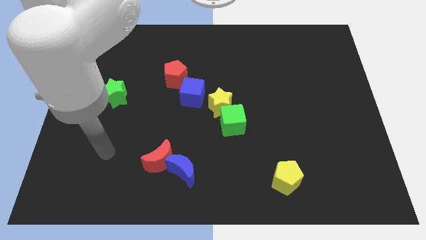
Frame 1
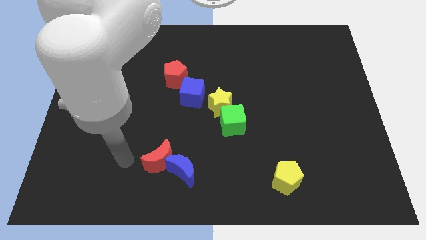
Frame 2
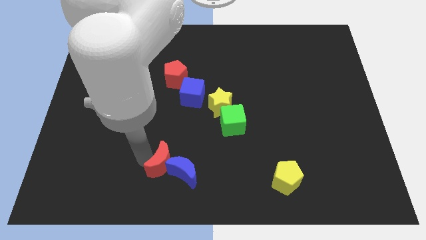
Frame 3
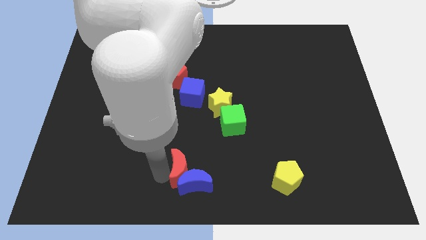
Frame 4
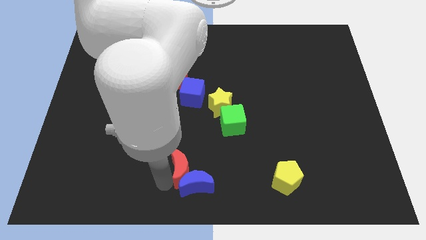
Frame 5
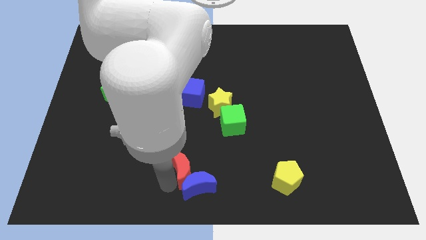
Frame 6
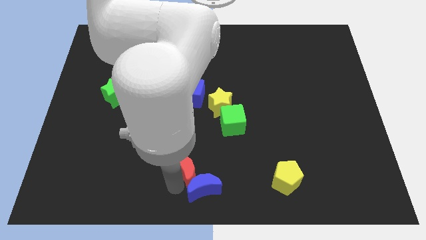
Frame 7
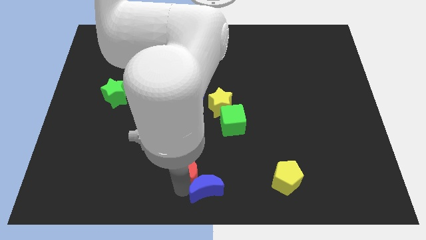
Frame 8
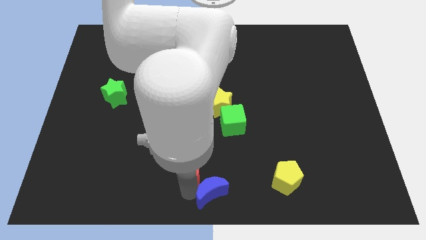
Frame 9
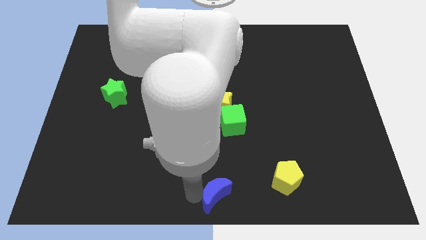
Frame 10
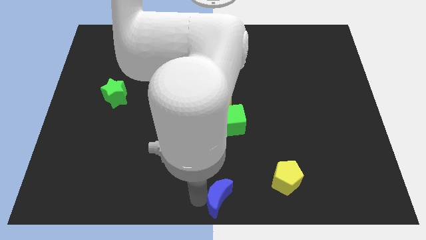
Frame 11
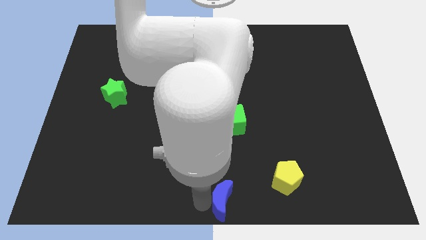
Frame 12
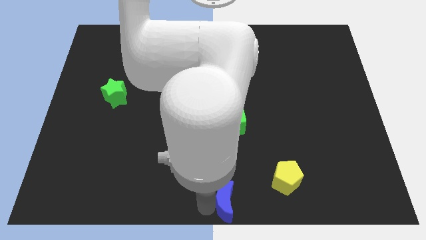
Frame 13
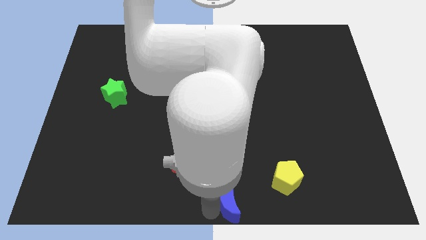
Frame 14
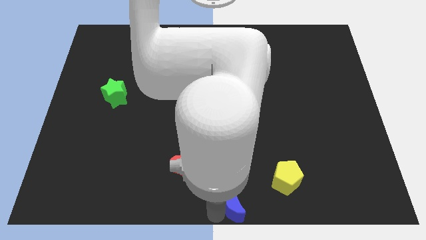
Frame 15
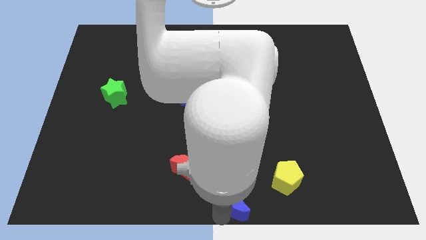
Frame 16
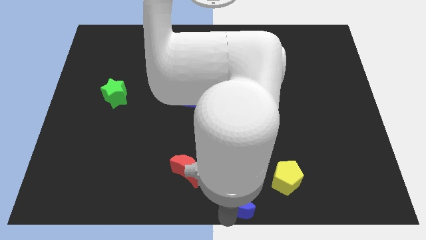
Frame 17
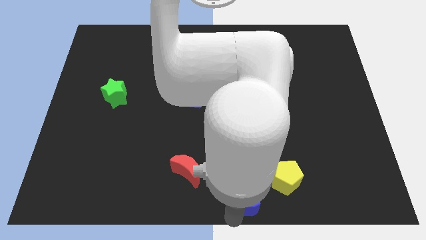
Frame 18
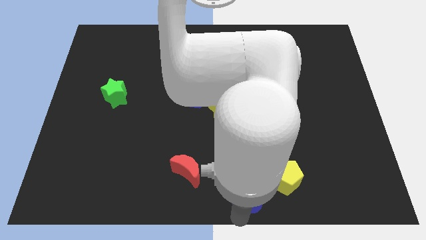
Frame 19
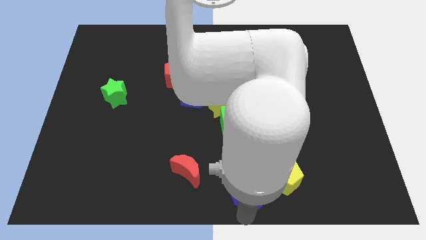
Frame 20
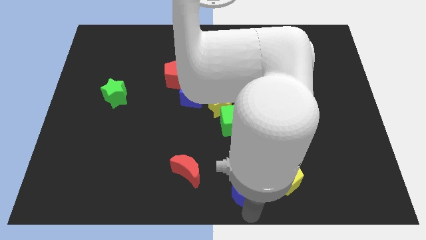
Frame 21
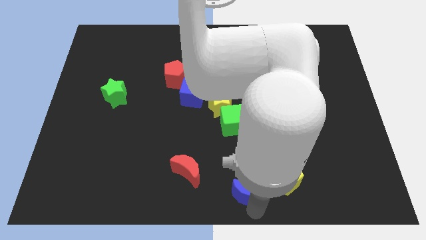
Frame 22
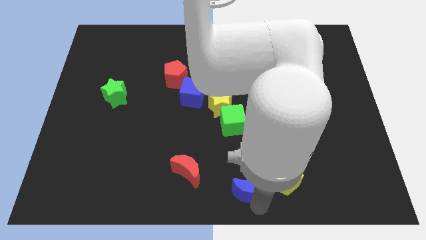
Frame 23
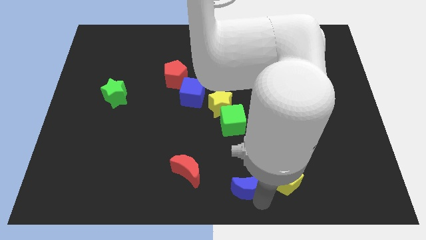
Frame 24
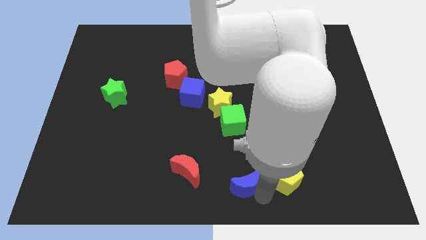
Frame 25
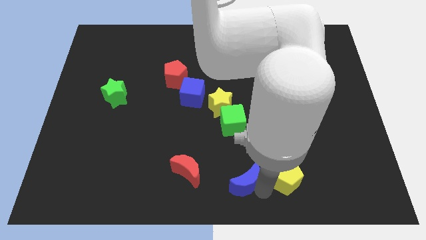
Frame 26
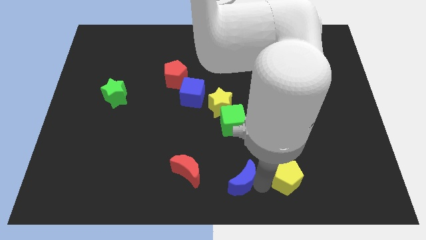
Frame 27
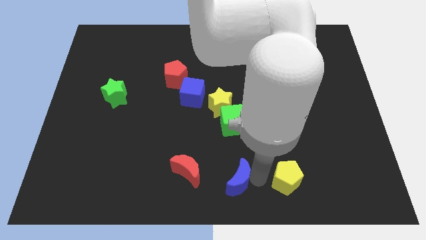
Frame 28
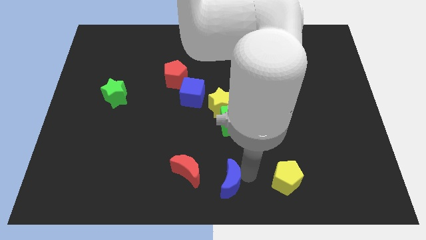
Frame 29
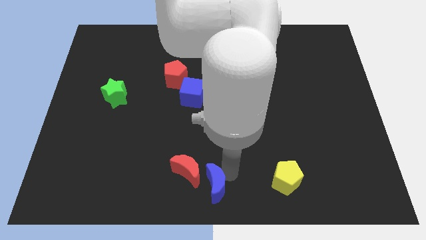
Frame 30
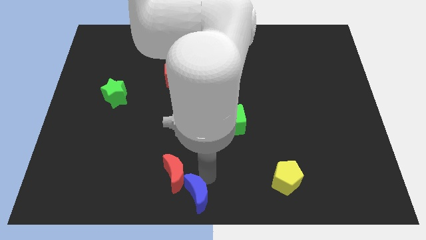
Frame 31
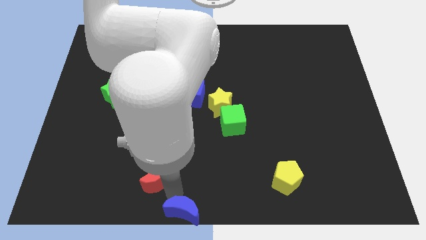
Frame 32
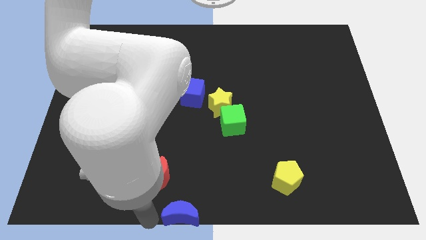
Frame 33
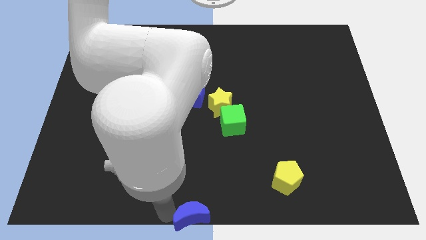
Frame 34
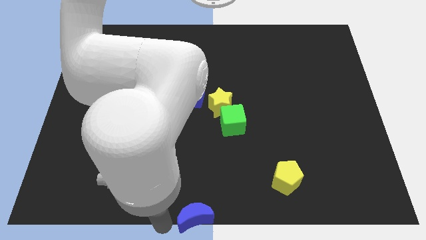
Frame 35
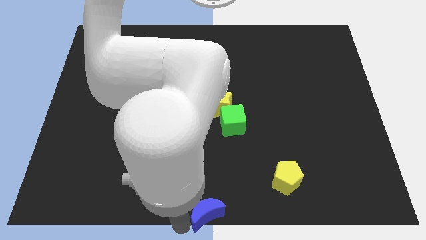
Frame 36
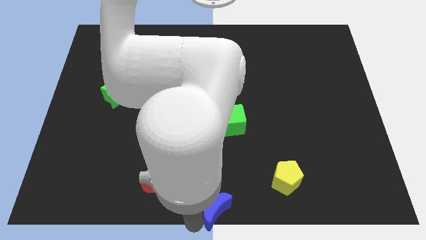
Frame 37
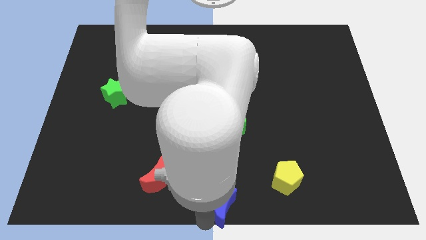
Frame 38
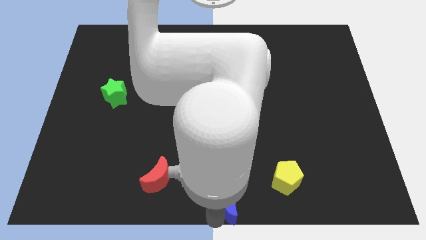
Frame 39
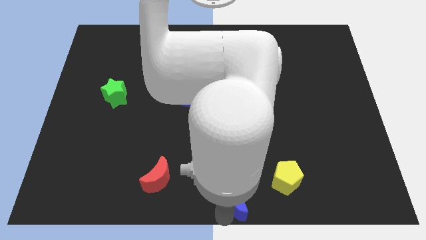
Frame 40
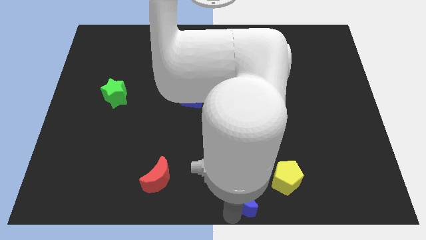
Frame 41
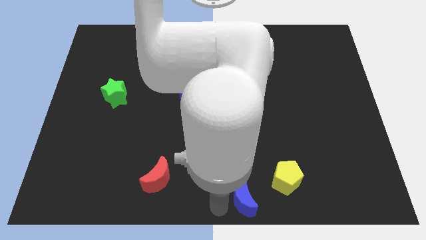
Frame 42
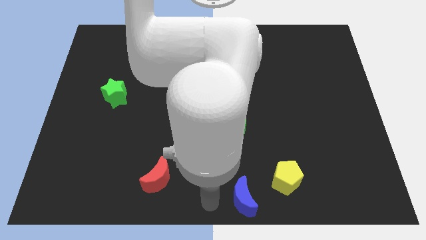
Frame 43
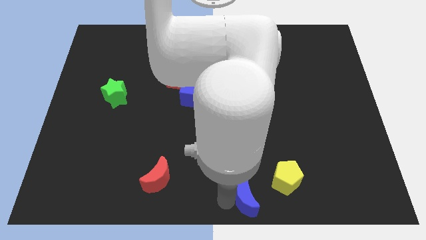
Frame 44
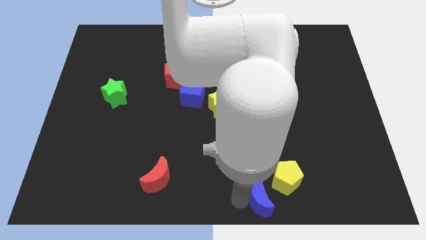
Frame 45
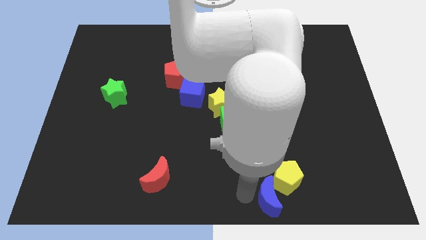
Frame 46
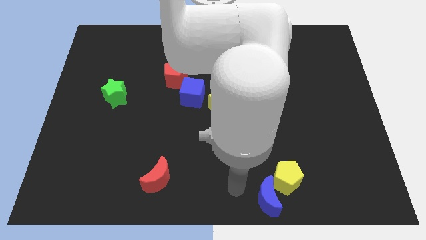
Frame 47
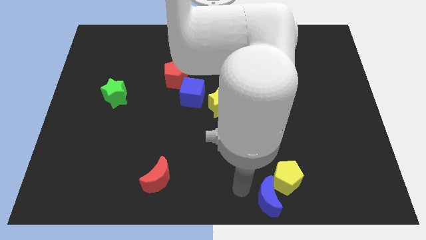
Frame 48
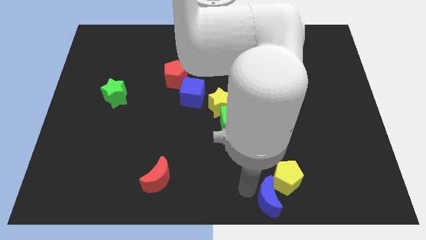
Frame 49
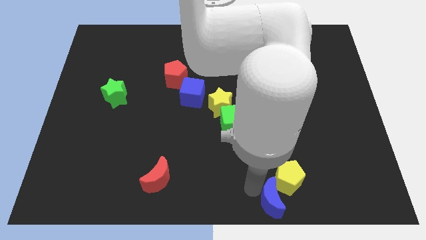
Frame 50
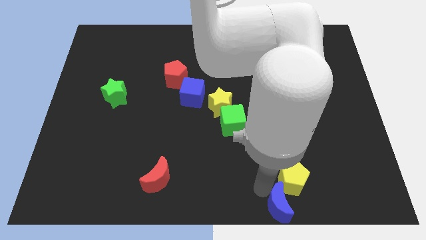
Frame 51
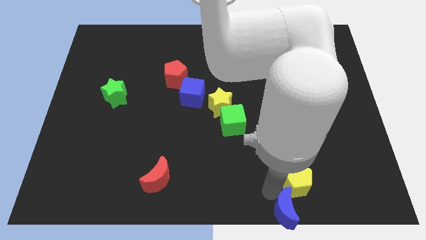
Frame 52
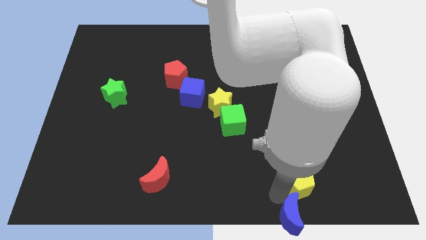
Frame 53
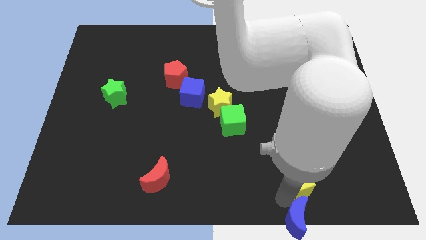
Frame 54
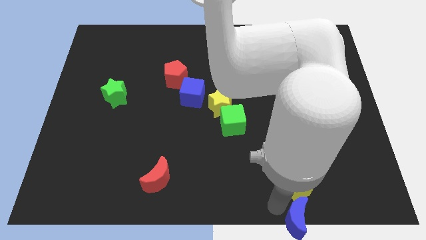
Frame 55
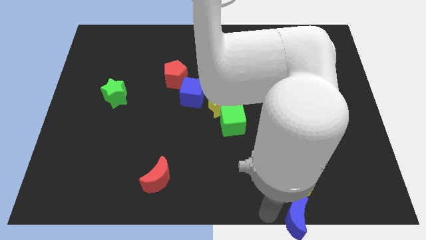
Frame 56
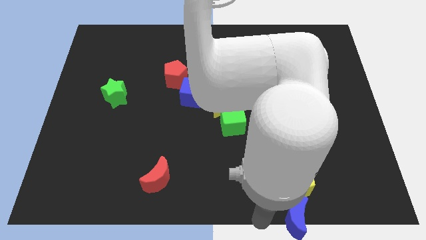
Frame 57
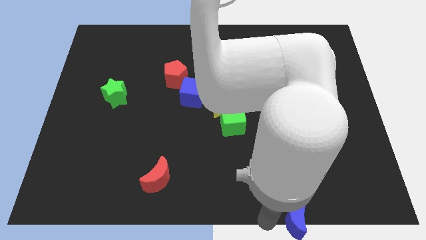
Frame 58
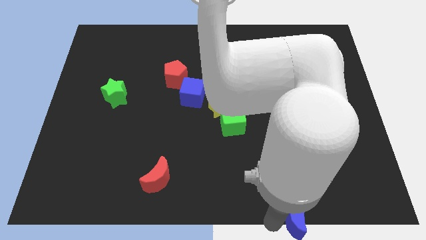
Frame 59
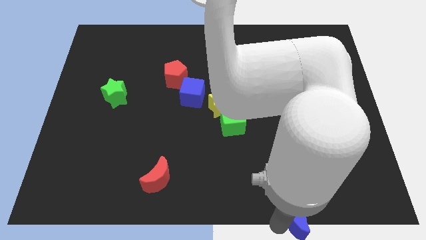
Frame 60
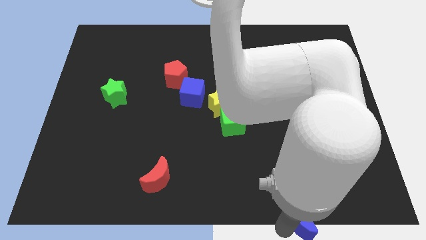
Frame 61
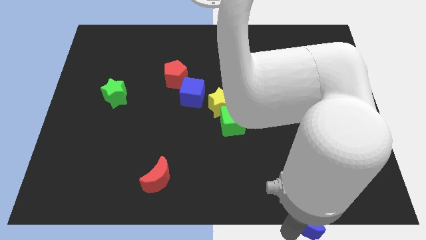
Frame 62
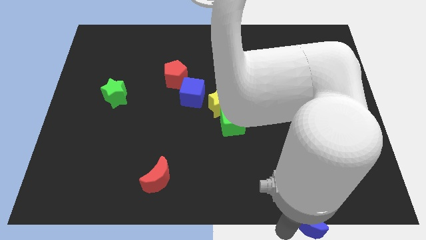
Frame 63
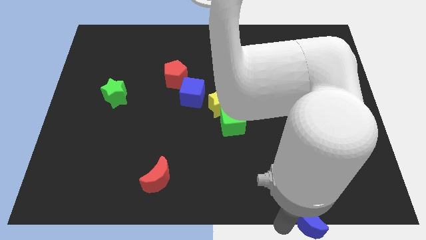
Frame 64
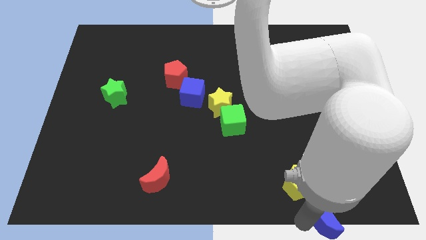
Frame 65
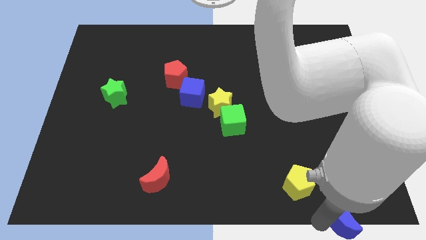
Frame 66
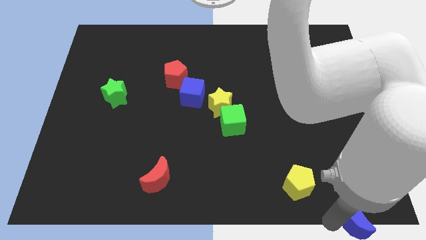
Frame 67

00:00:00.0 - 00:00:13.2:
put the blue moon to the lower right corner
